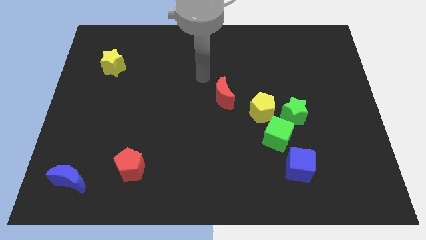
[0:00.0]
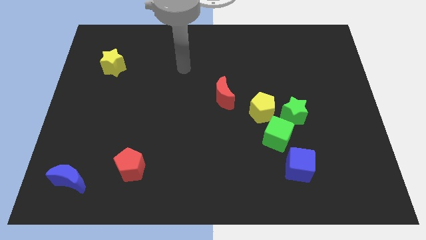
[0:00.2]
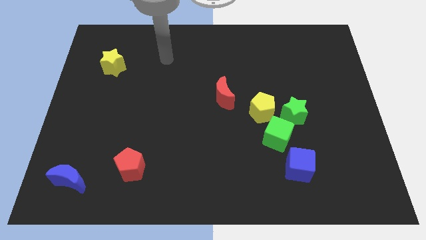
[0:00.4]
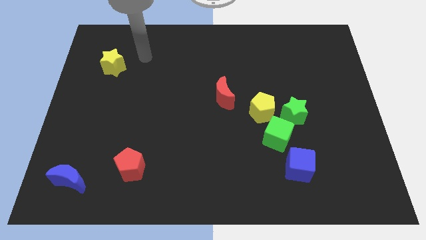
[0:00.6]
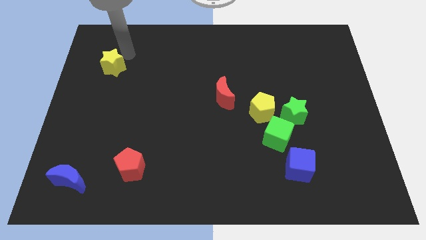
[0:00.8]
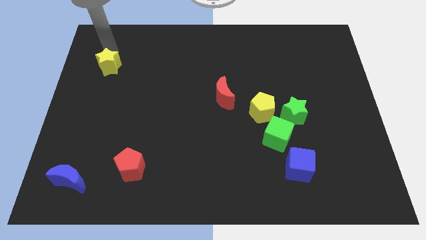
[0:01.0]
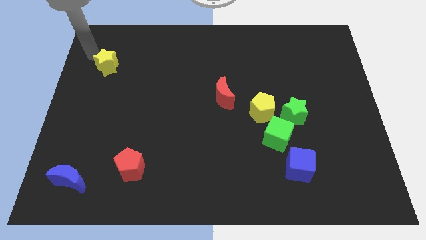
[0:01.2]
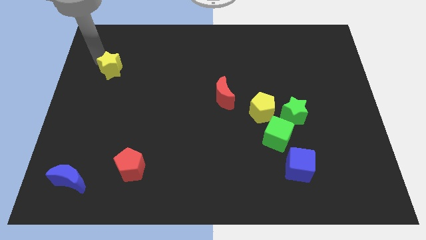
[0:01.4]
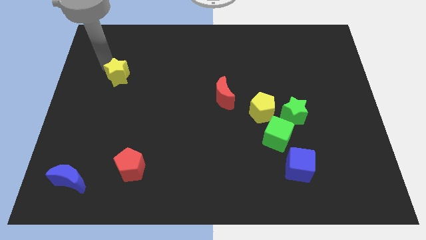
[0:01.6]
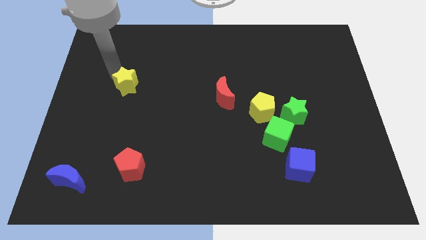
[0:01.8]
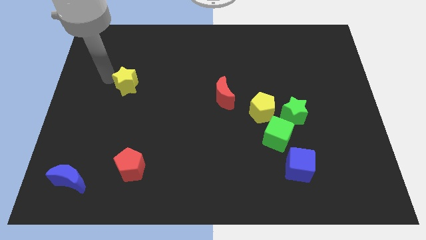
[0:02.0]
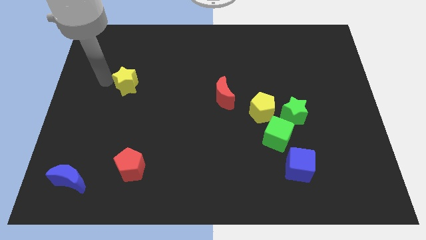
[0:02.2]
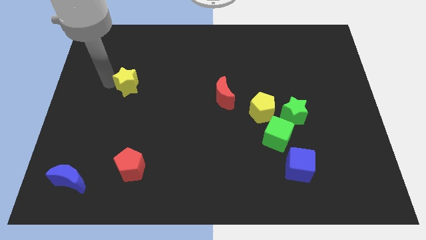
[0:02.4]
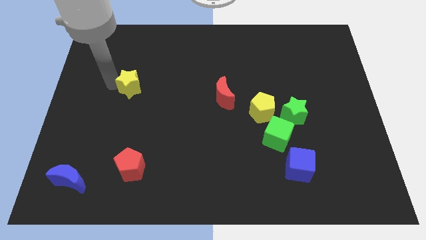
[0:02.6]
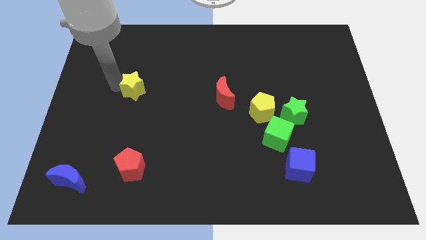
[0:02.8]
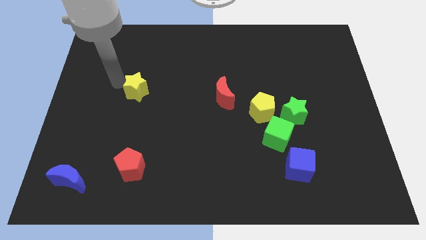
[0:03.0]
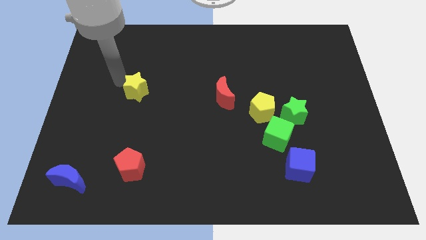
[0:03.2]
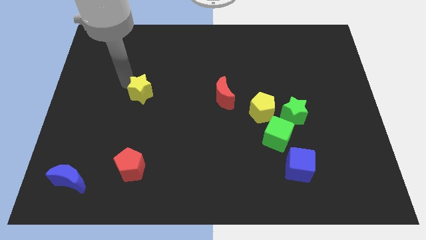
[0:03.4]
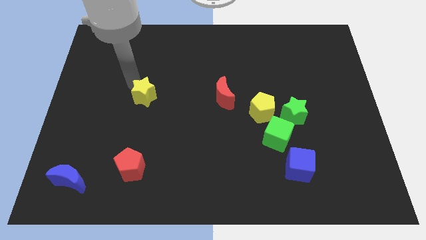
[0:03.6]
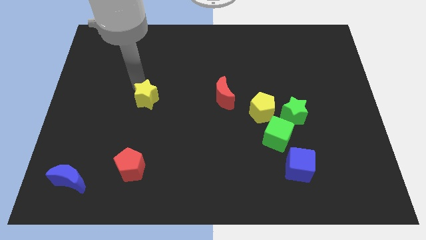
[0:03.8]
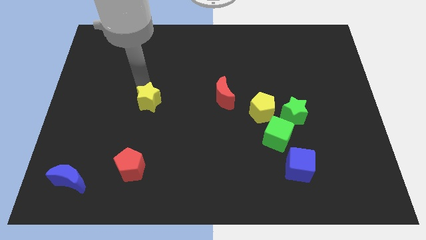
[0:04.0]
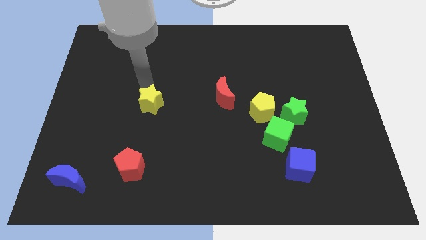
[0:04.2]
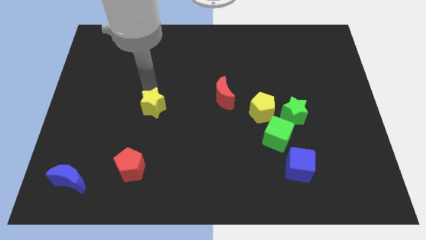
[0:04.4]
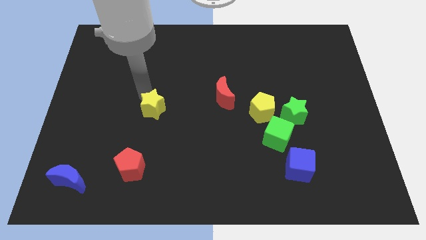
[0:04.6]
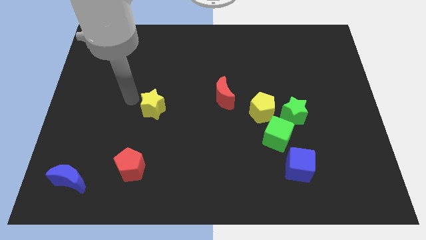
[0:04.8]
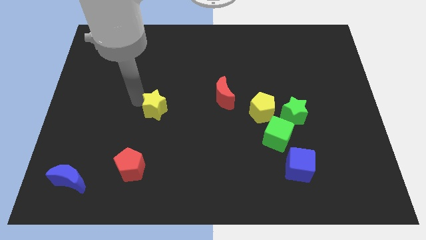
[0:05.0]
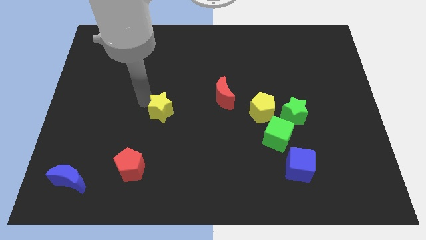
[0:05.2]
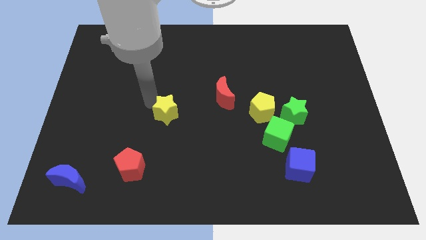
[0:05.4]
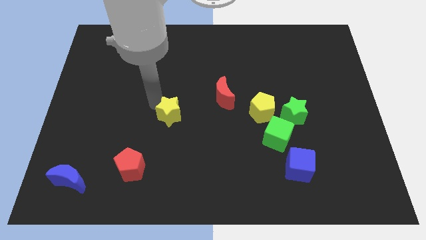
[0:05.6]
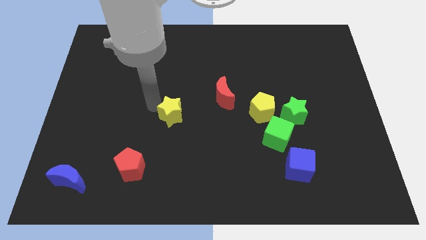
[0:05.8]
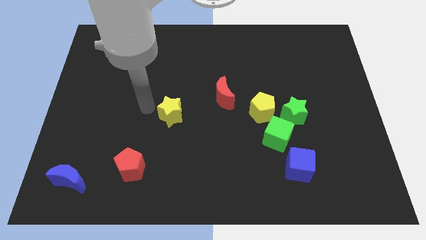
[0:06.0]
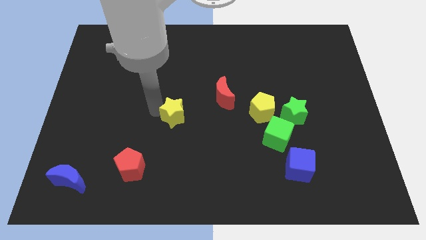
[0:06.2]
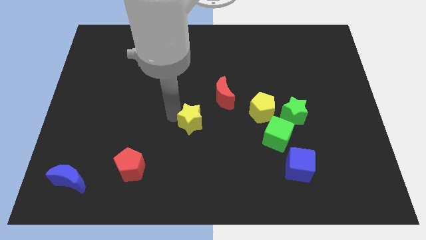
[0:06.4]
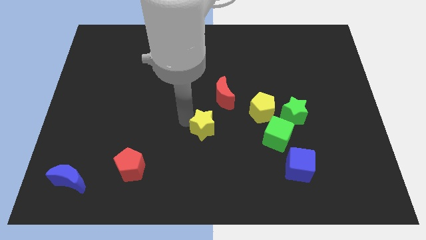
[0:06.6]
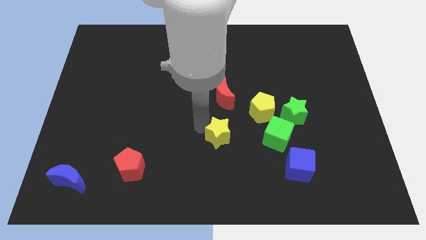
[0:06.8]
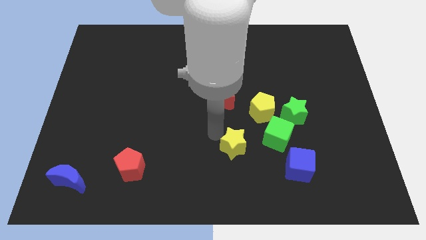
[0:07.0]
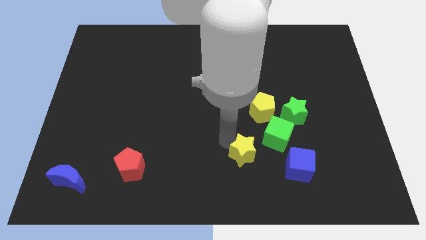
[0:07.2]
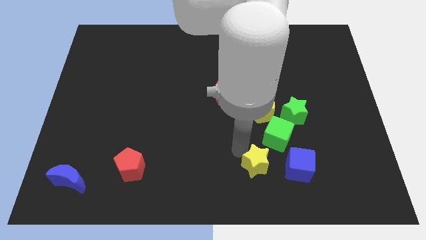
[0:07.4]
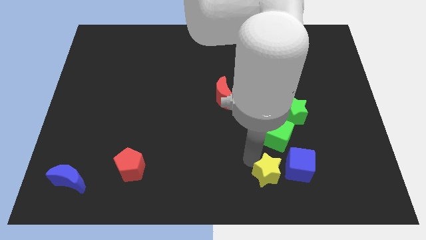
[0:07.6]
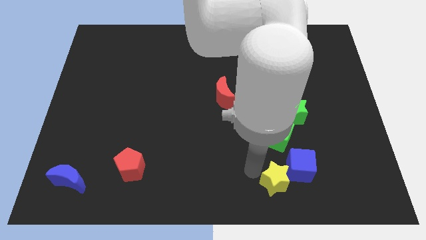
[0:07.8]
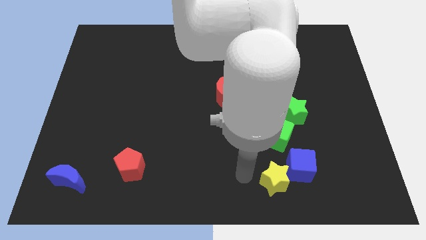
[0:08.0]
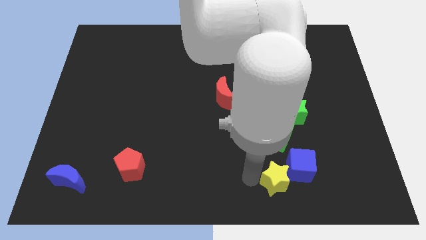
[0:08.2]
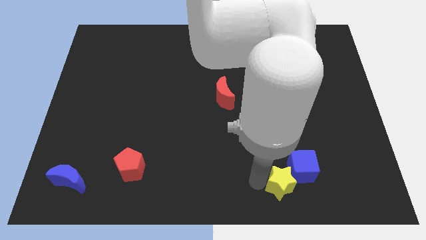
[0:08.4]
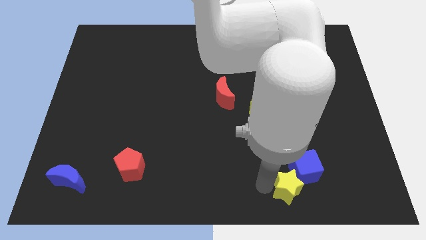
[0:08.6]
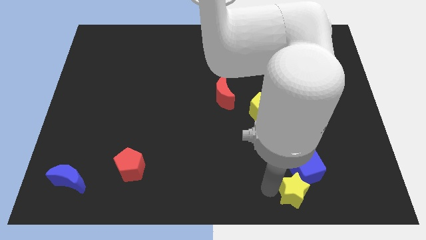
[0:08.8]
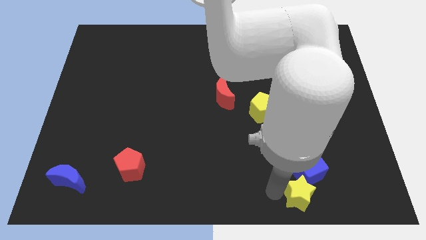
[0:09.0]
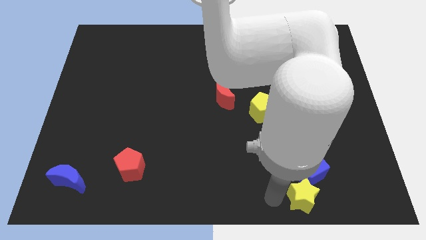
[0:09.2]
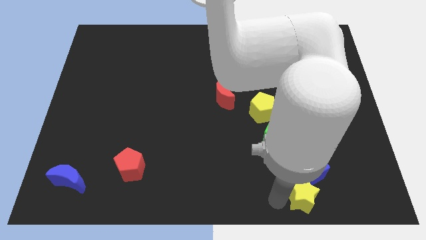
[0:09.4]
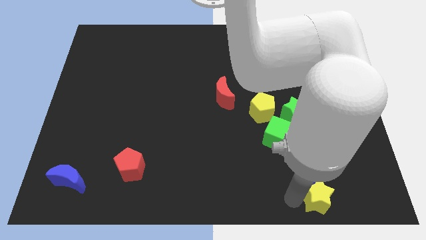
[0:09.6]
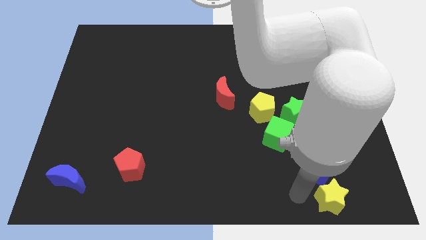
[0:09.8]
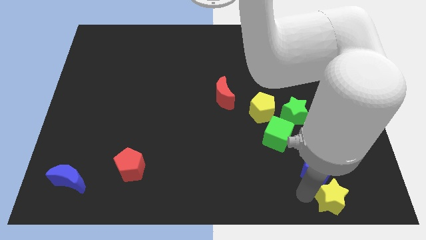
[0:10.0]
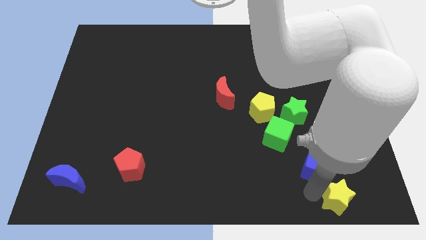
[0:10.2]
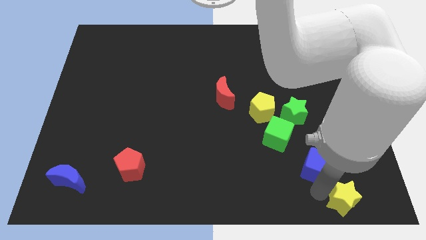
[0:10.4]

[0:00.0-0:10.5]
move the yellow star to the bottom right corner

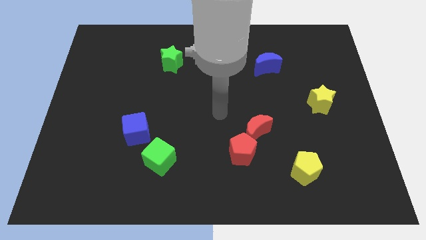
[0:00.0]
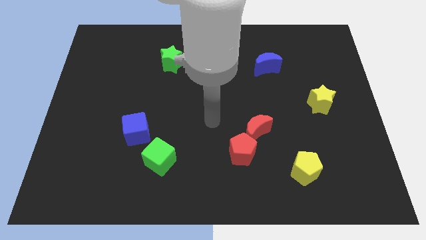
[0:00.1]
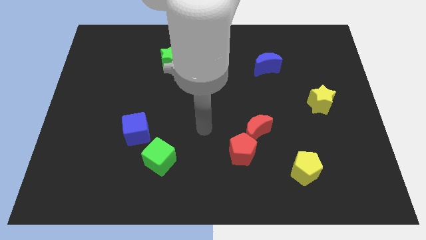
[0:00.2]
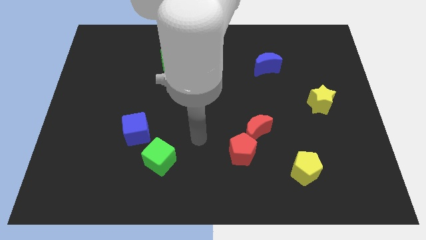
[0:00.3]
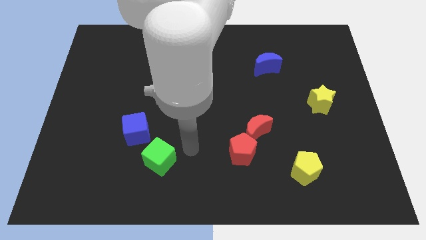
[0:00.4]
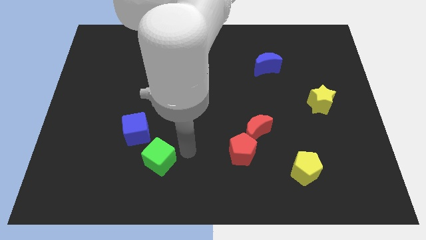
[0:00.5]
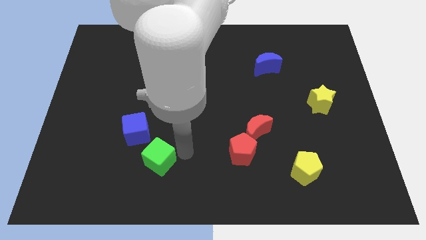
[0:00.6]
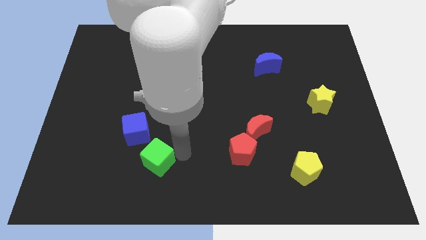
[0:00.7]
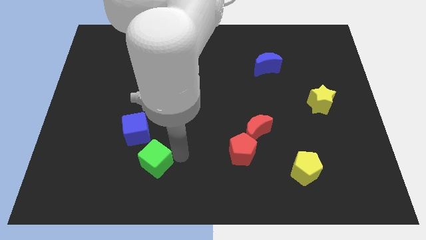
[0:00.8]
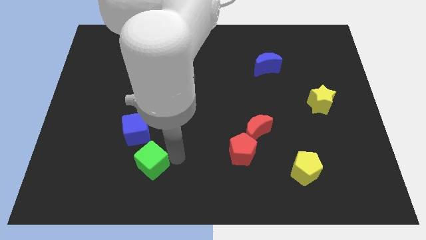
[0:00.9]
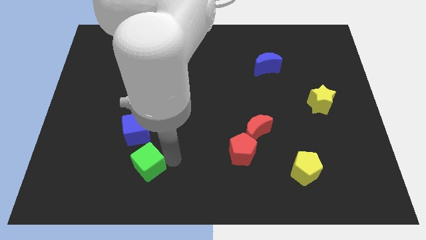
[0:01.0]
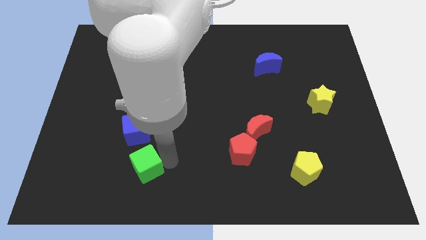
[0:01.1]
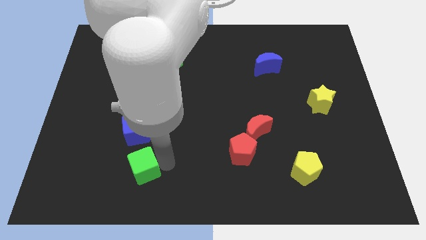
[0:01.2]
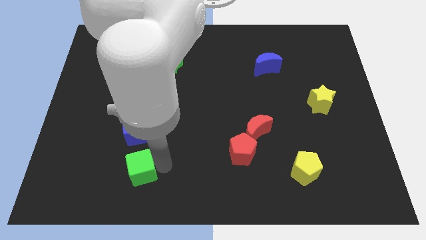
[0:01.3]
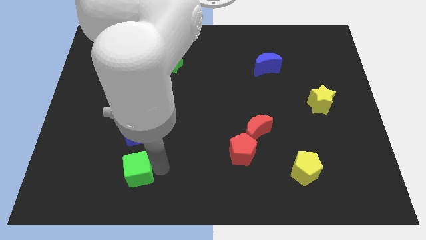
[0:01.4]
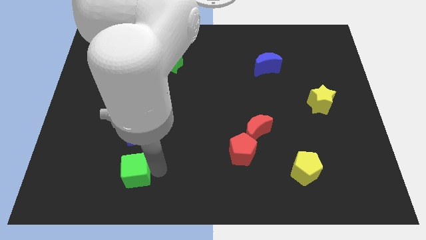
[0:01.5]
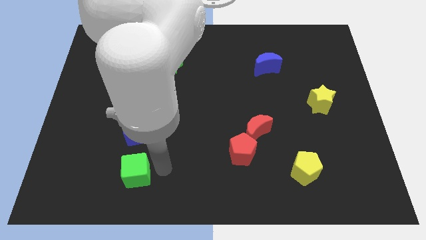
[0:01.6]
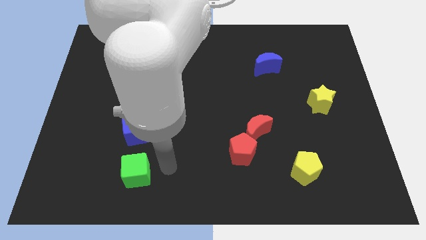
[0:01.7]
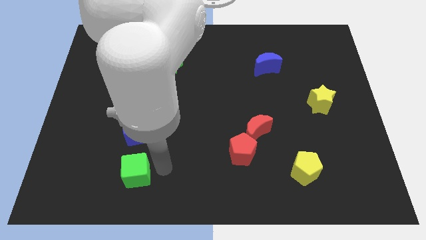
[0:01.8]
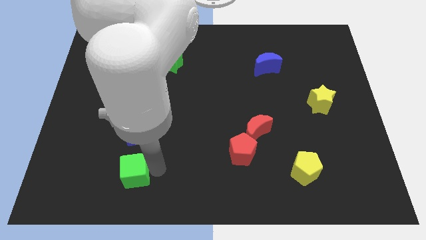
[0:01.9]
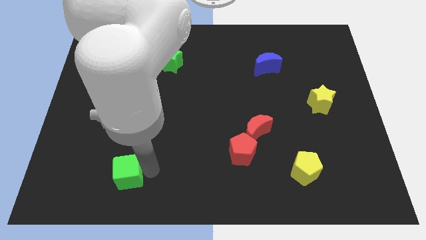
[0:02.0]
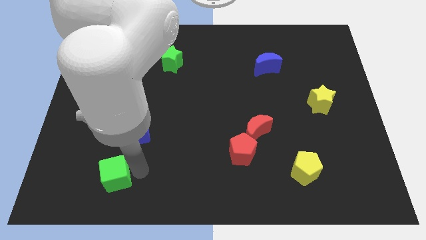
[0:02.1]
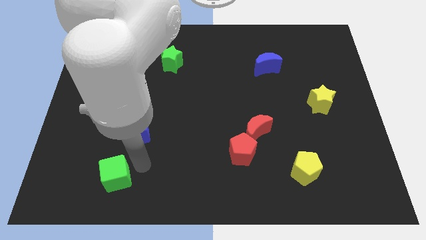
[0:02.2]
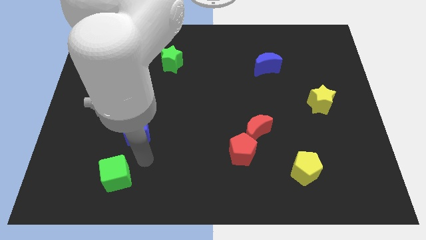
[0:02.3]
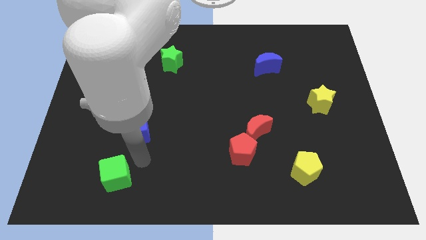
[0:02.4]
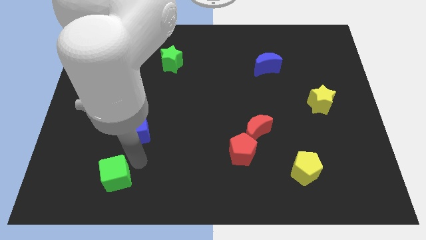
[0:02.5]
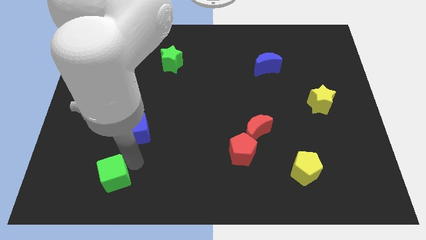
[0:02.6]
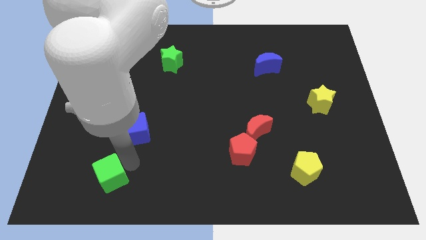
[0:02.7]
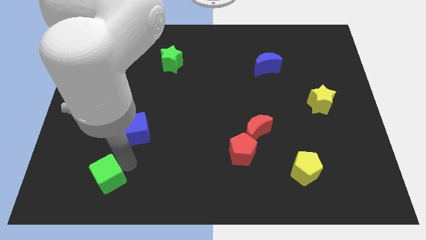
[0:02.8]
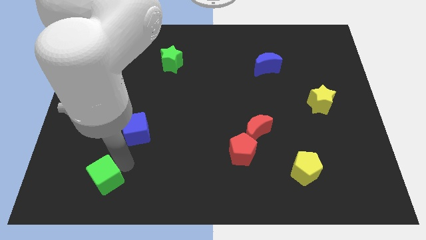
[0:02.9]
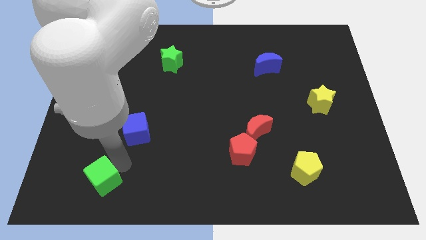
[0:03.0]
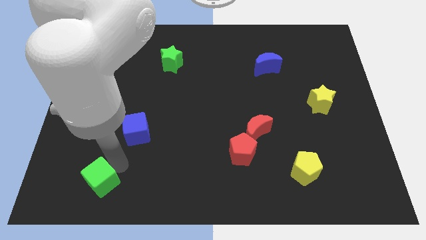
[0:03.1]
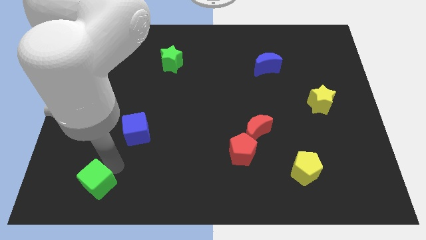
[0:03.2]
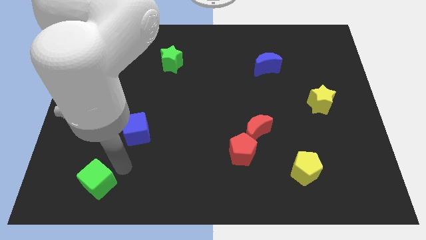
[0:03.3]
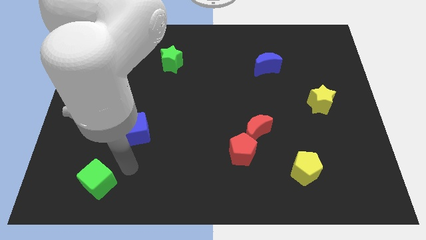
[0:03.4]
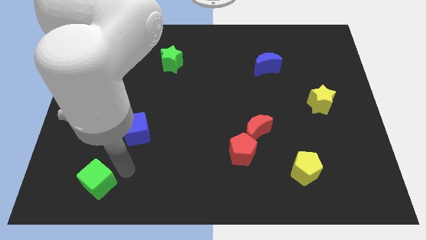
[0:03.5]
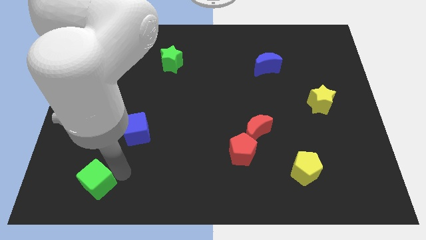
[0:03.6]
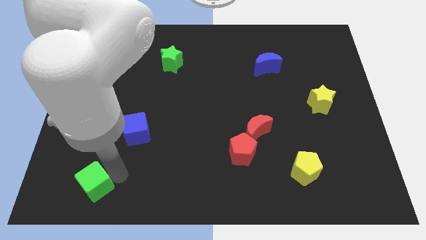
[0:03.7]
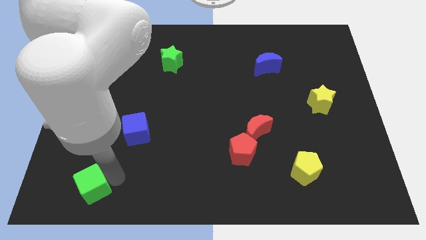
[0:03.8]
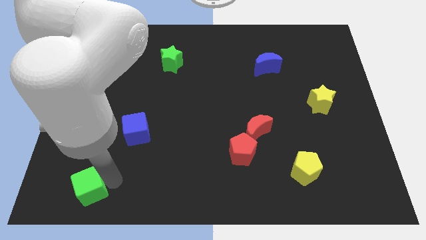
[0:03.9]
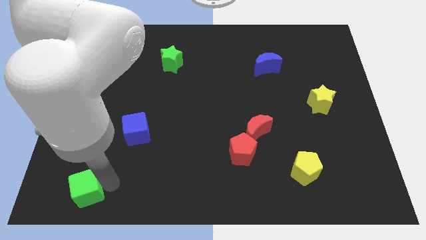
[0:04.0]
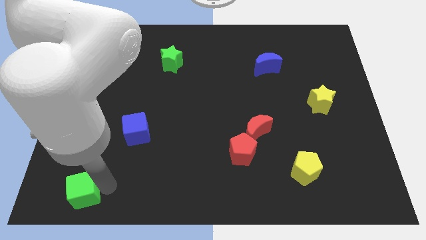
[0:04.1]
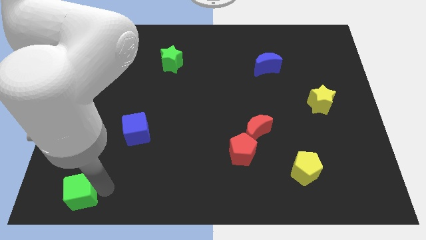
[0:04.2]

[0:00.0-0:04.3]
put the green cube to the bottom left corner
